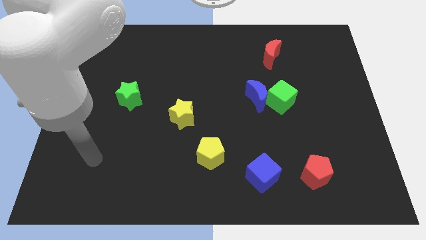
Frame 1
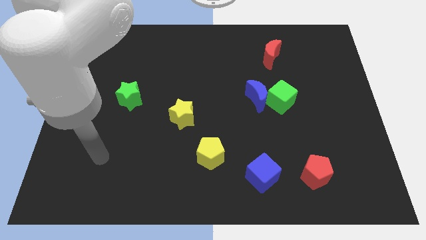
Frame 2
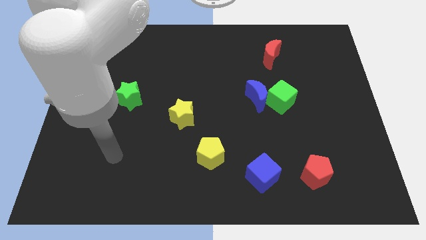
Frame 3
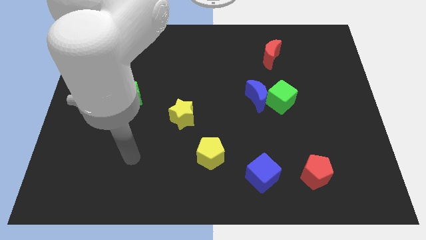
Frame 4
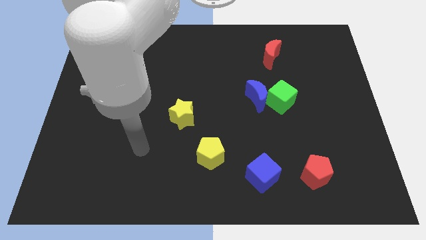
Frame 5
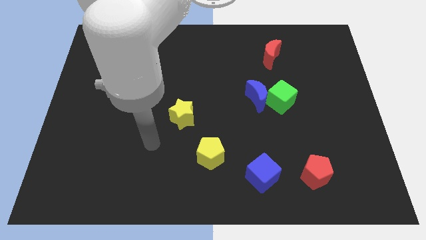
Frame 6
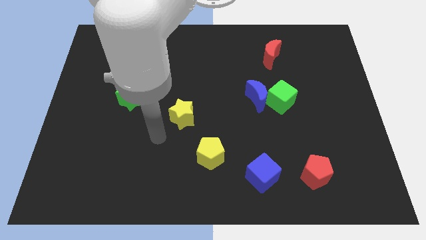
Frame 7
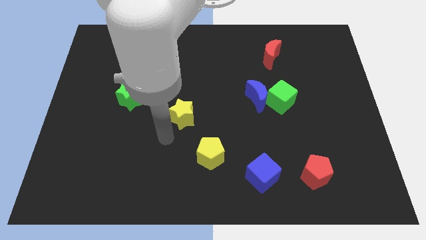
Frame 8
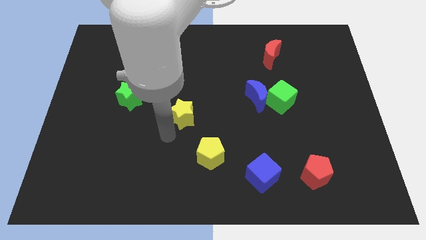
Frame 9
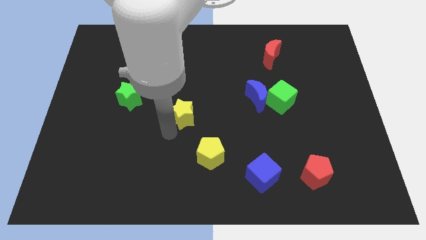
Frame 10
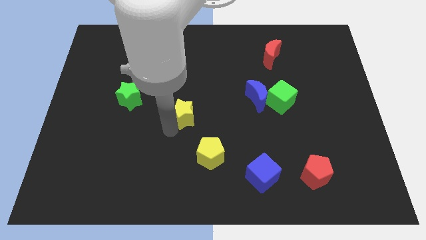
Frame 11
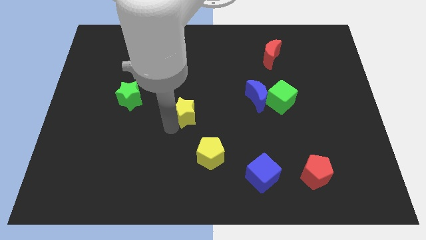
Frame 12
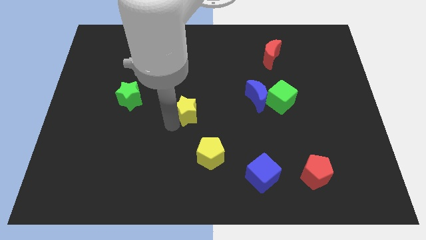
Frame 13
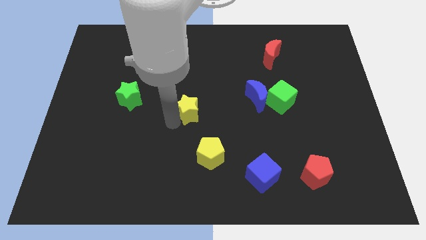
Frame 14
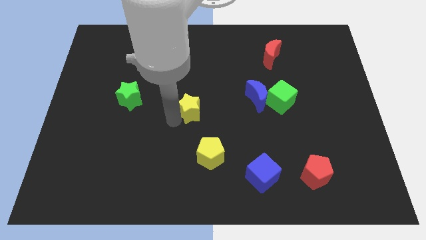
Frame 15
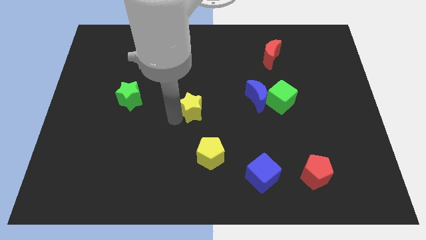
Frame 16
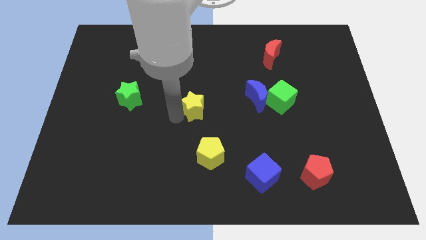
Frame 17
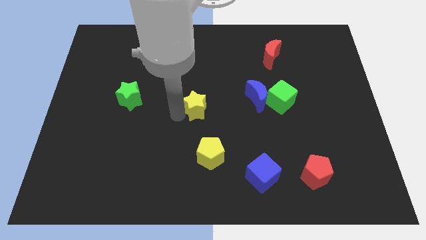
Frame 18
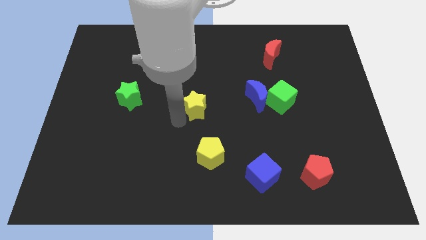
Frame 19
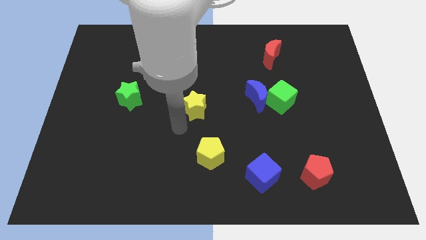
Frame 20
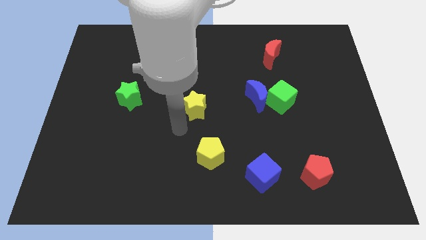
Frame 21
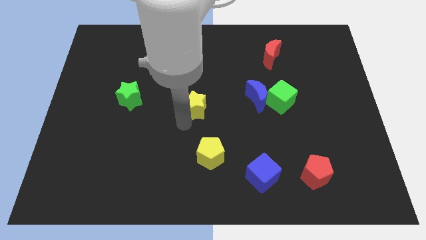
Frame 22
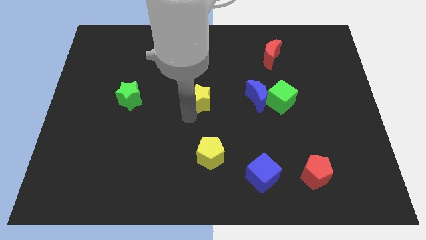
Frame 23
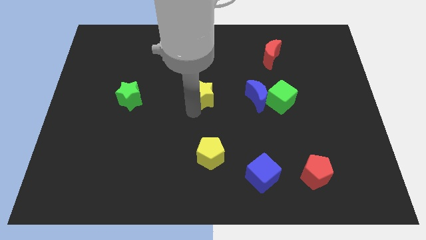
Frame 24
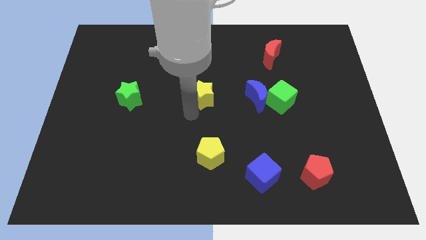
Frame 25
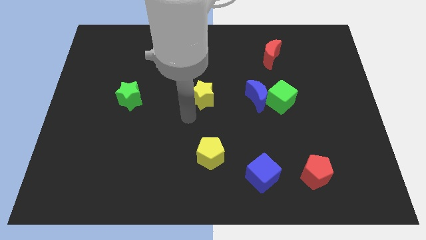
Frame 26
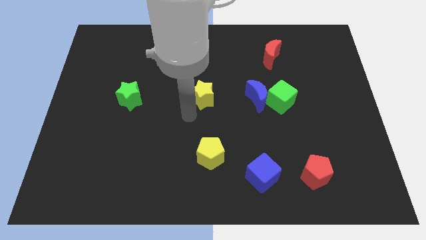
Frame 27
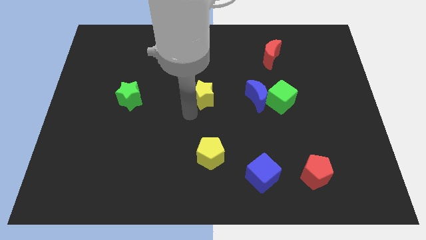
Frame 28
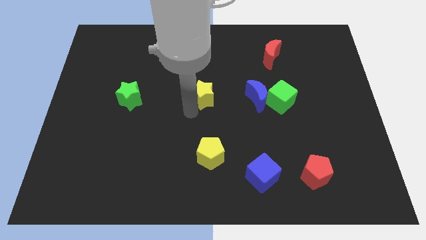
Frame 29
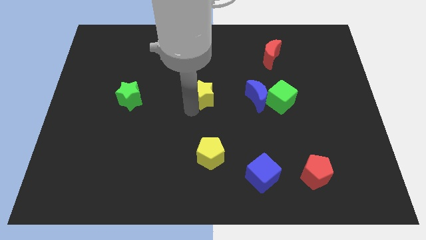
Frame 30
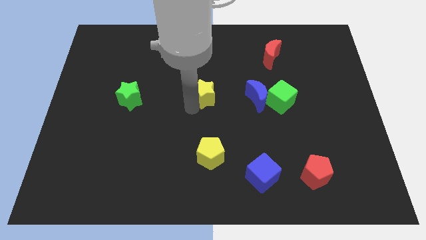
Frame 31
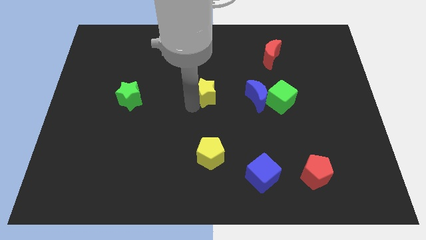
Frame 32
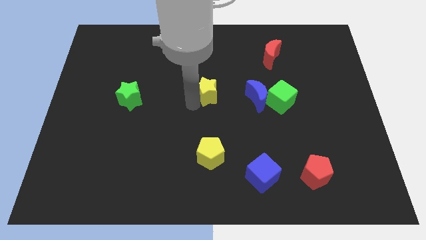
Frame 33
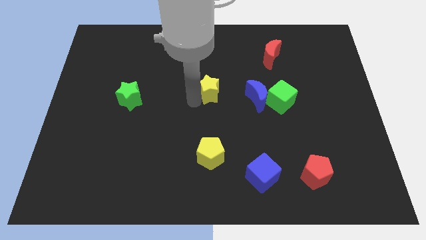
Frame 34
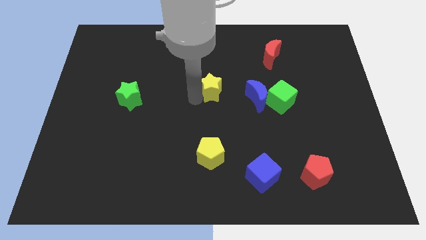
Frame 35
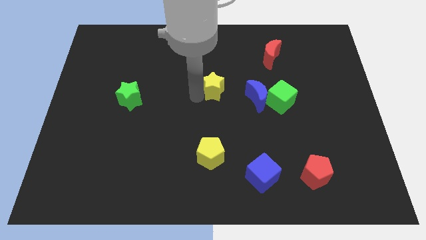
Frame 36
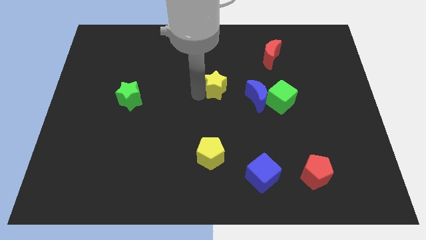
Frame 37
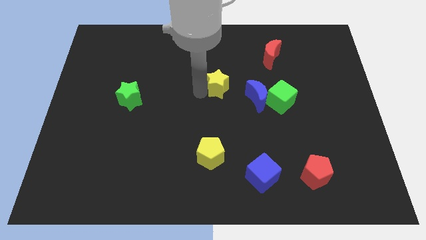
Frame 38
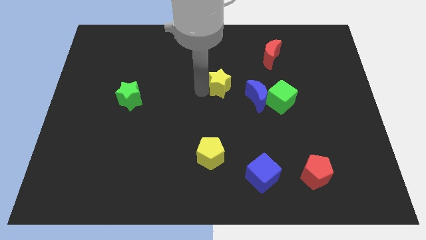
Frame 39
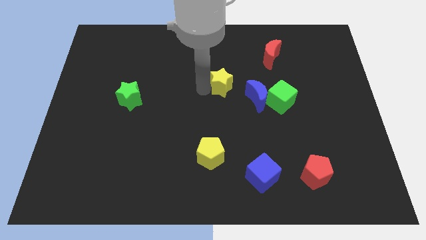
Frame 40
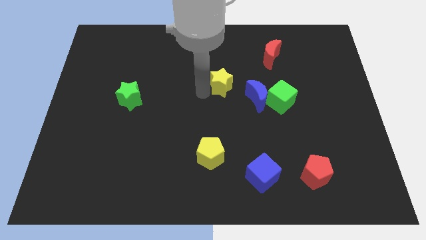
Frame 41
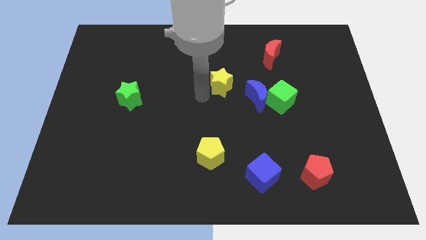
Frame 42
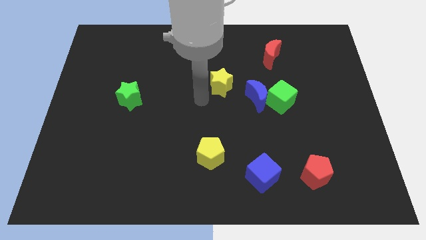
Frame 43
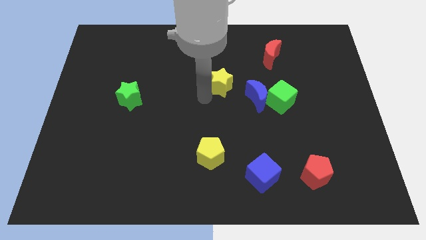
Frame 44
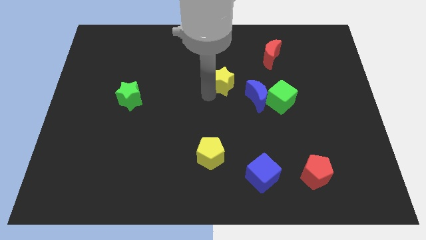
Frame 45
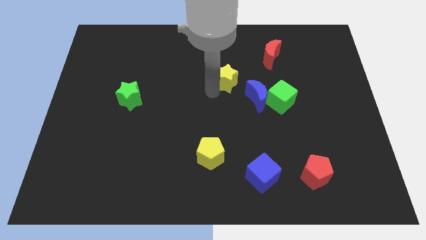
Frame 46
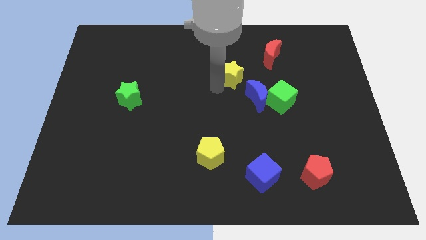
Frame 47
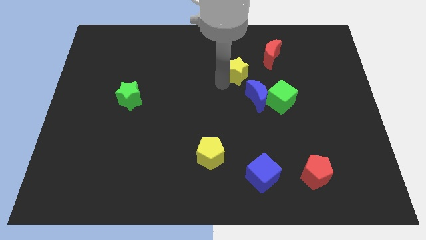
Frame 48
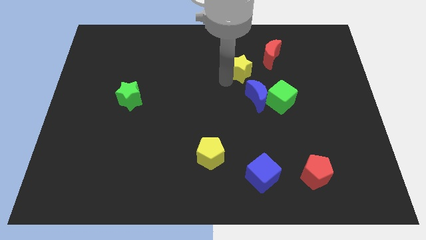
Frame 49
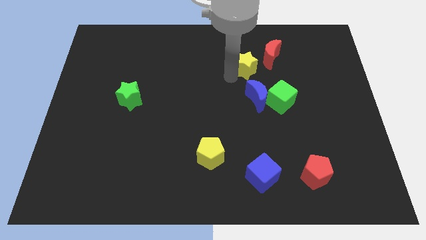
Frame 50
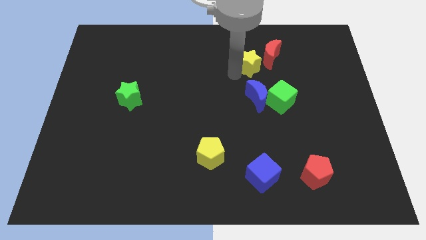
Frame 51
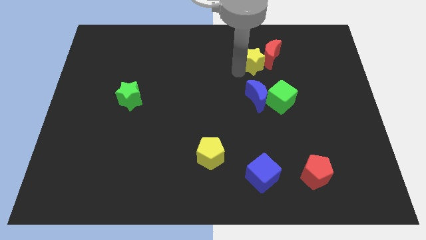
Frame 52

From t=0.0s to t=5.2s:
slide the yellow star to the red moon

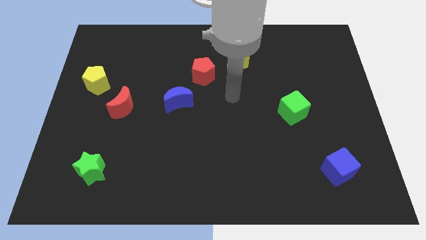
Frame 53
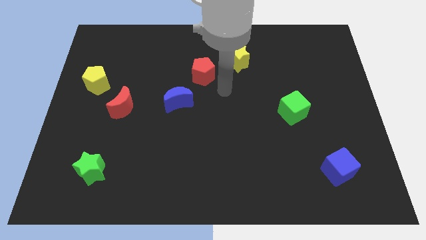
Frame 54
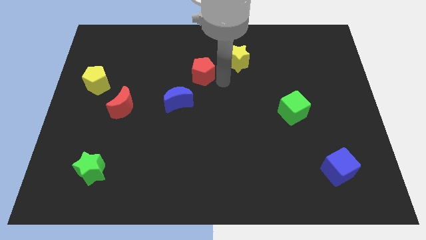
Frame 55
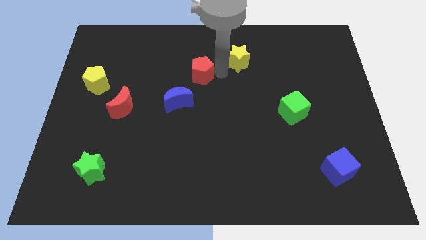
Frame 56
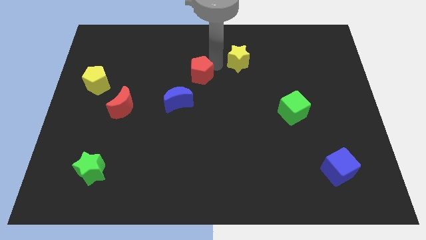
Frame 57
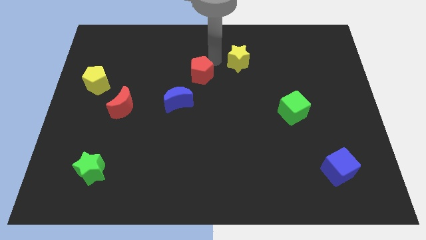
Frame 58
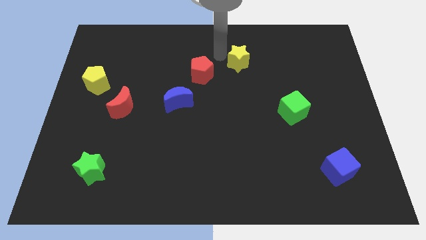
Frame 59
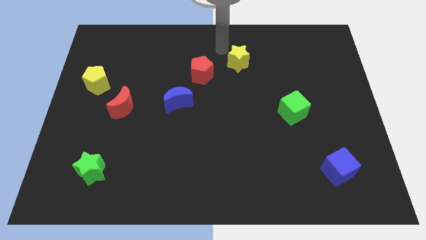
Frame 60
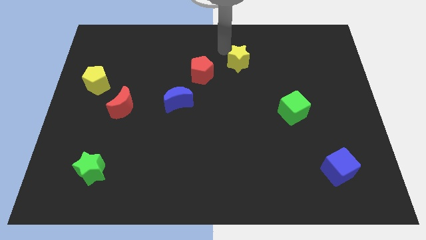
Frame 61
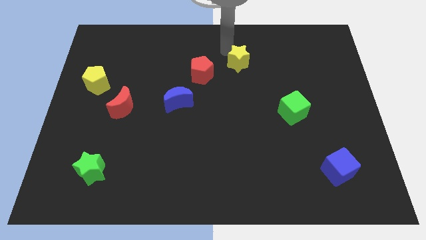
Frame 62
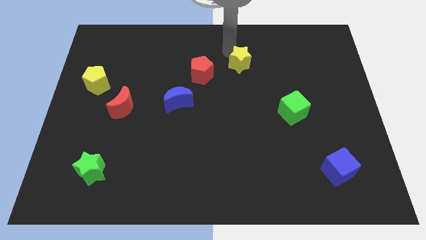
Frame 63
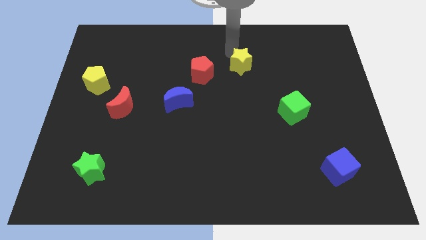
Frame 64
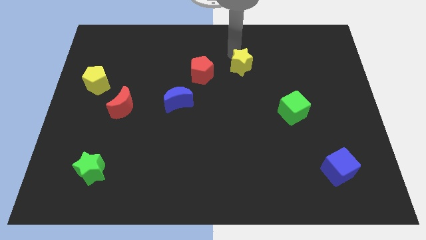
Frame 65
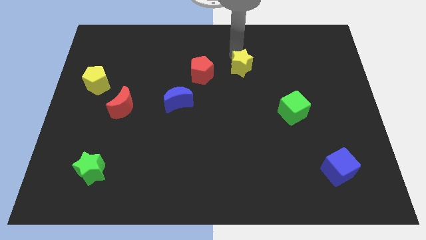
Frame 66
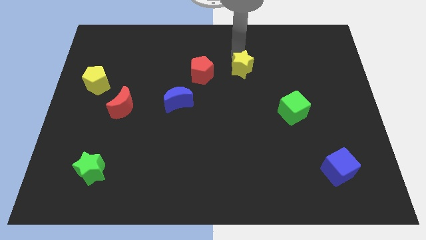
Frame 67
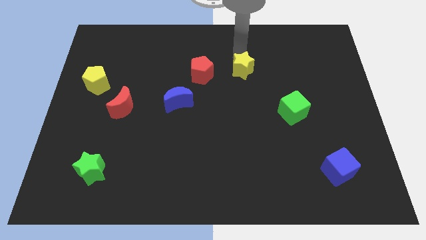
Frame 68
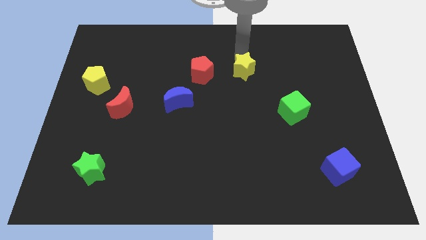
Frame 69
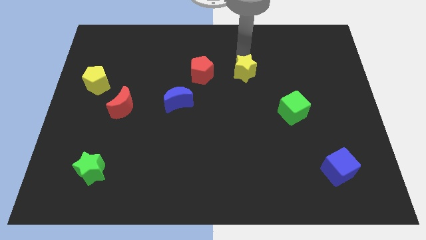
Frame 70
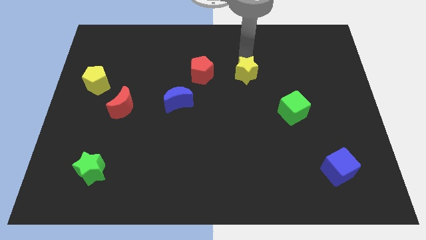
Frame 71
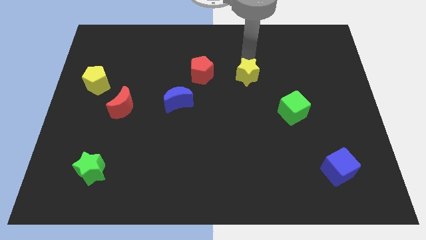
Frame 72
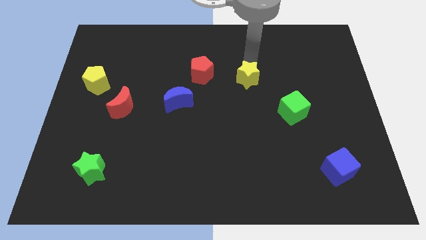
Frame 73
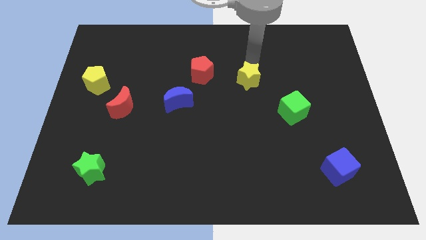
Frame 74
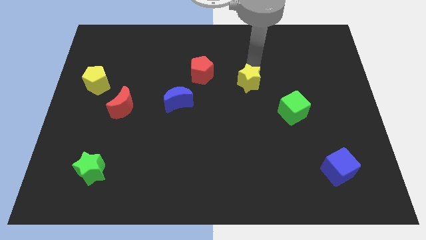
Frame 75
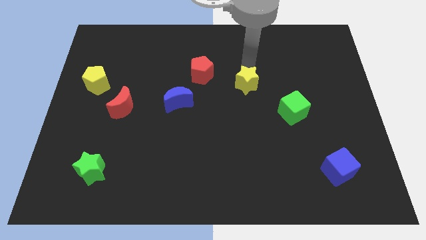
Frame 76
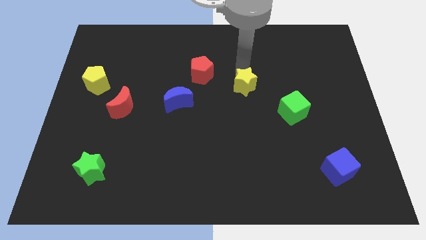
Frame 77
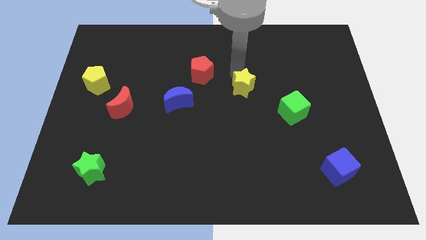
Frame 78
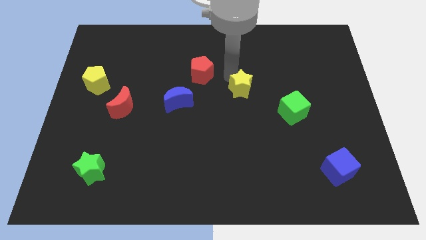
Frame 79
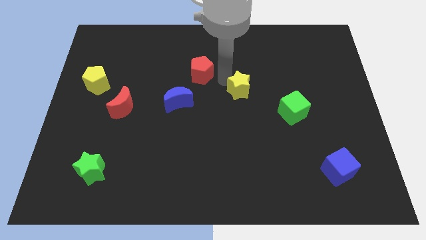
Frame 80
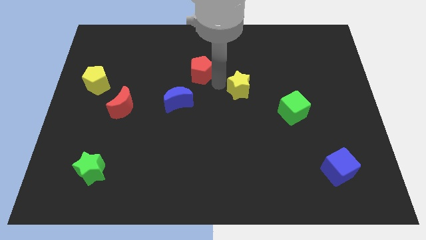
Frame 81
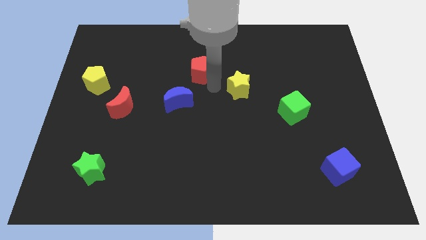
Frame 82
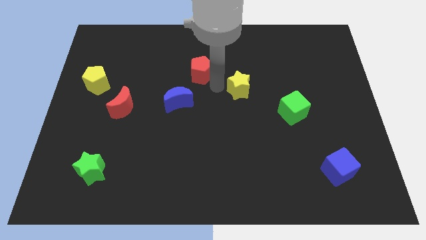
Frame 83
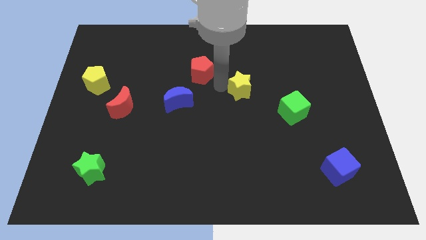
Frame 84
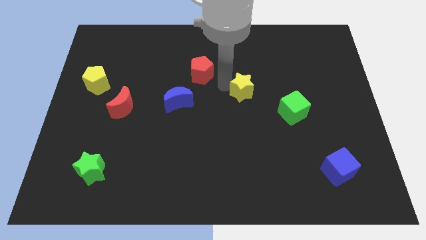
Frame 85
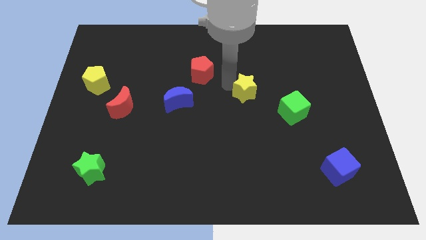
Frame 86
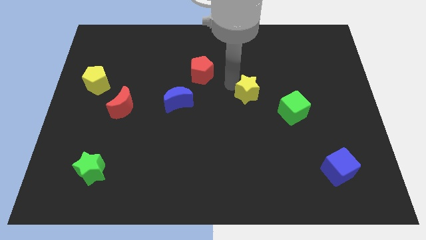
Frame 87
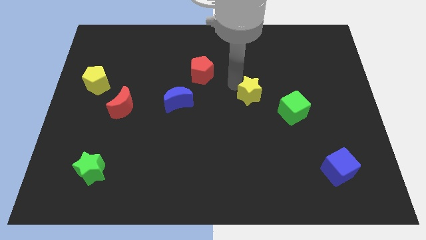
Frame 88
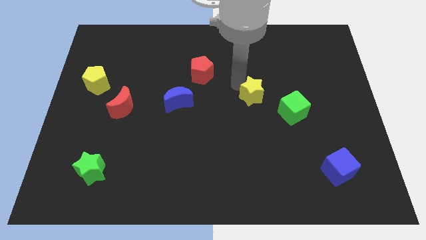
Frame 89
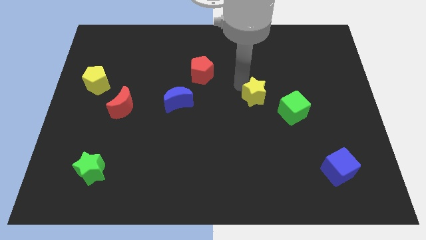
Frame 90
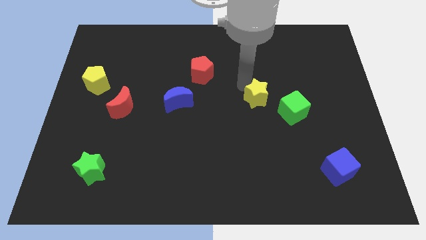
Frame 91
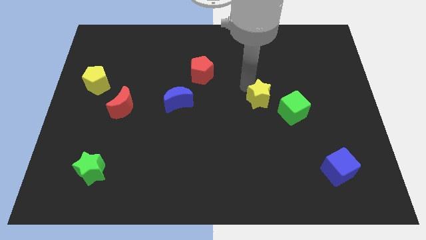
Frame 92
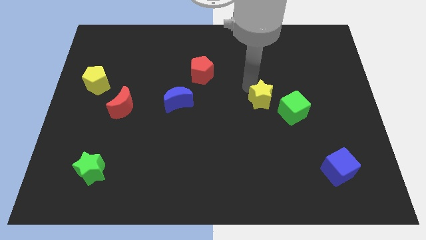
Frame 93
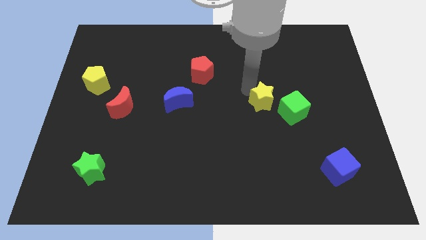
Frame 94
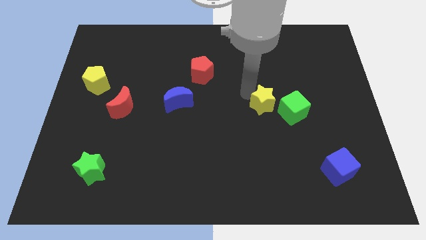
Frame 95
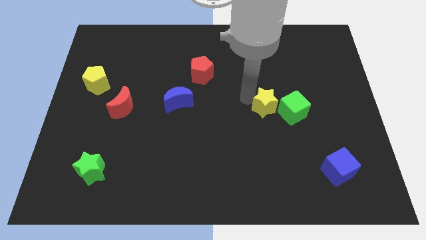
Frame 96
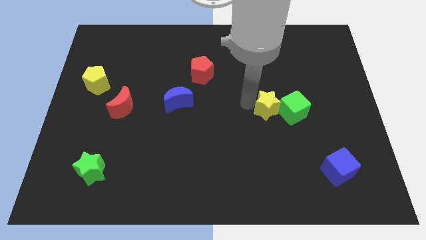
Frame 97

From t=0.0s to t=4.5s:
slide the yellow star to the green cube
